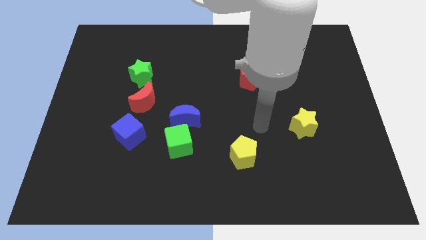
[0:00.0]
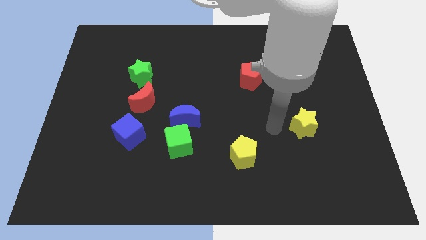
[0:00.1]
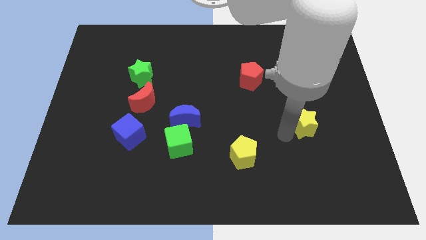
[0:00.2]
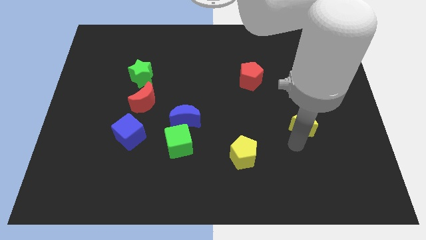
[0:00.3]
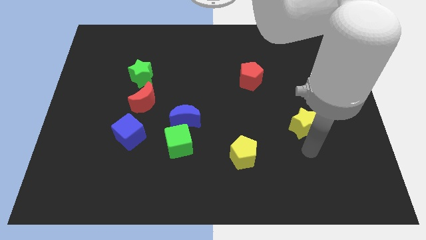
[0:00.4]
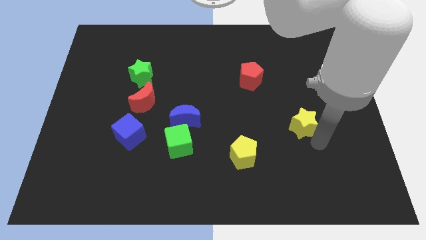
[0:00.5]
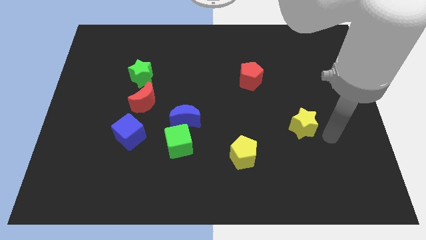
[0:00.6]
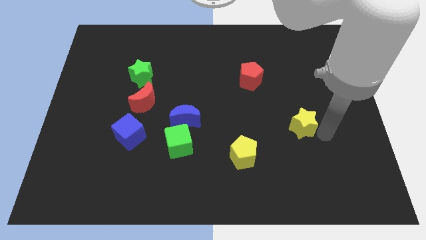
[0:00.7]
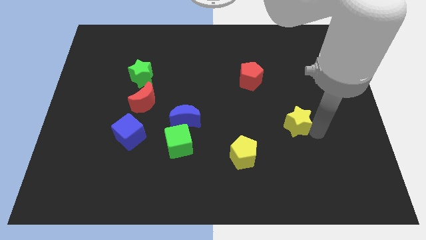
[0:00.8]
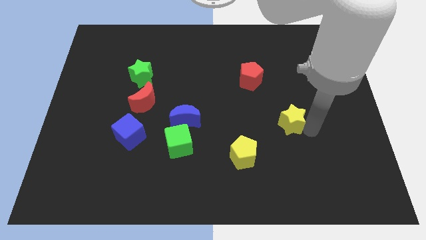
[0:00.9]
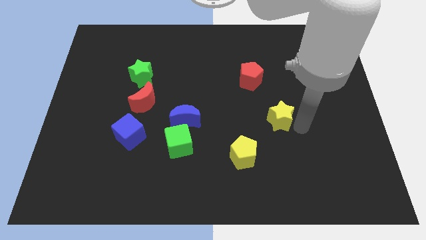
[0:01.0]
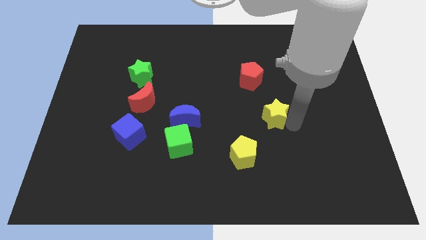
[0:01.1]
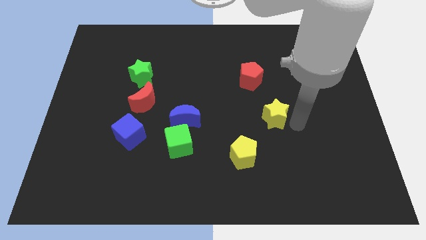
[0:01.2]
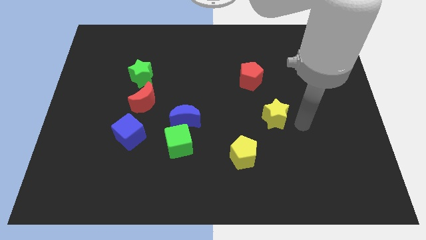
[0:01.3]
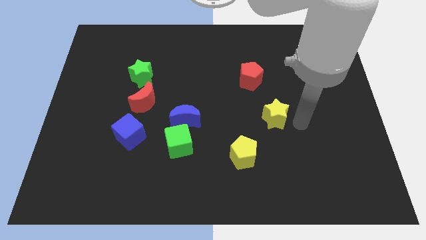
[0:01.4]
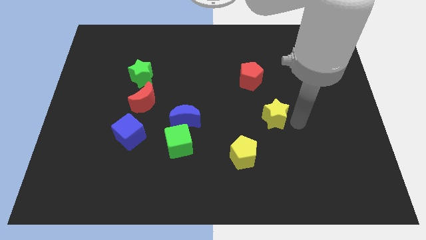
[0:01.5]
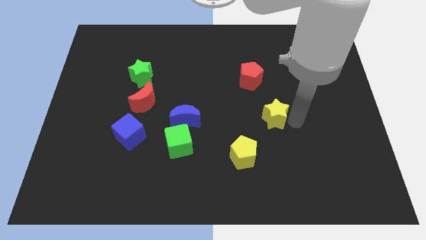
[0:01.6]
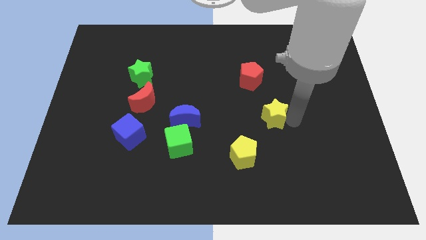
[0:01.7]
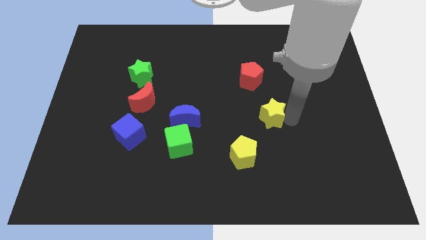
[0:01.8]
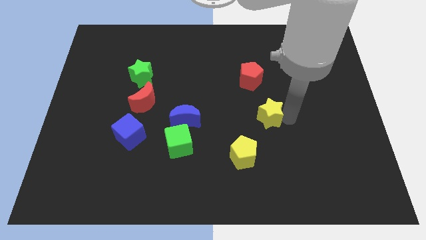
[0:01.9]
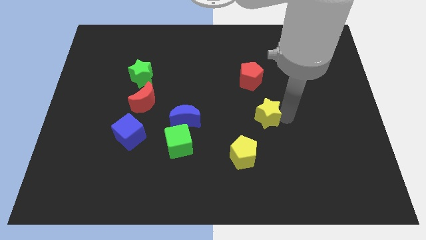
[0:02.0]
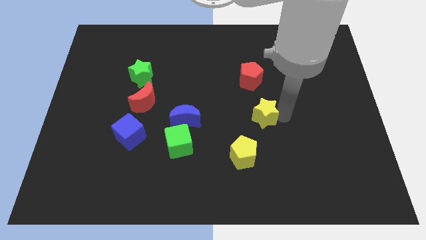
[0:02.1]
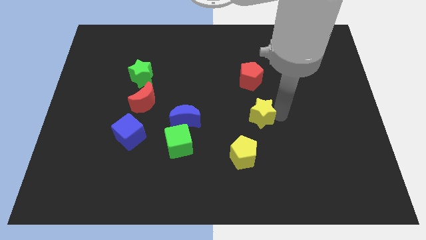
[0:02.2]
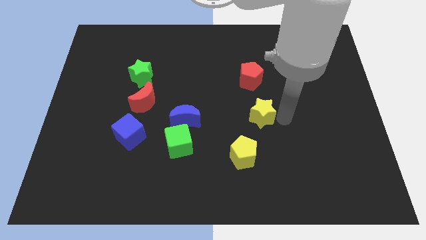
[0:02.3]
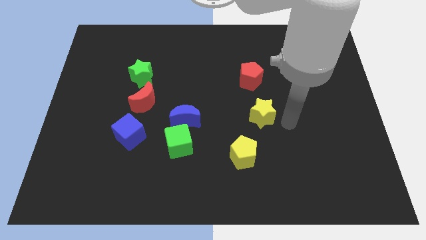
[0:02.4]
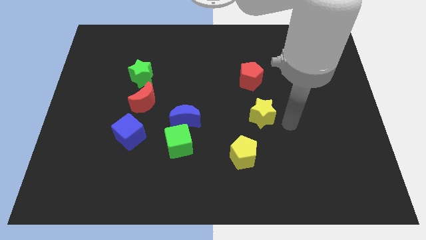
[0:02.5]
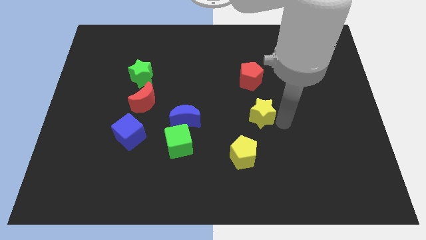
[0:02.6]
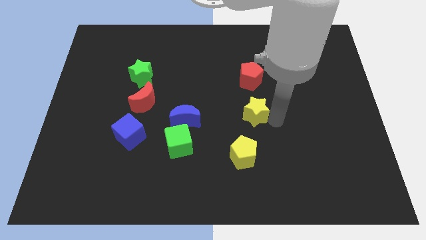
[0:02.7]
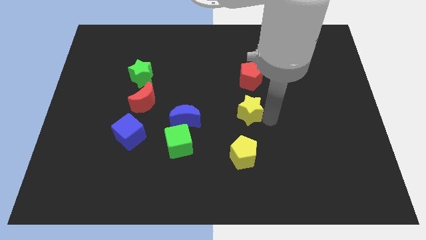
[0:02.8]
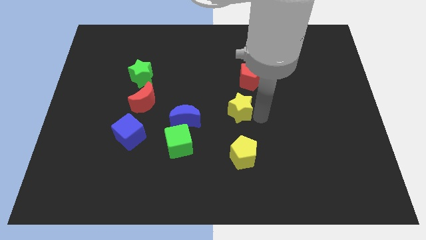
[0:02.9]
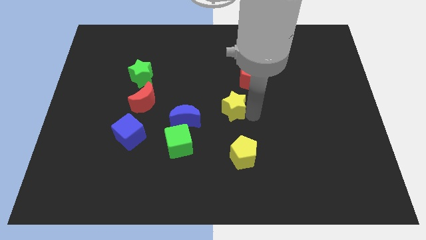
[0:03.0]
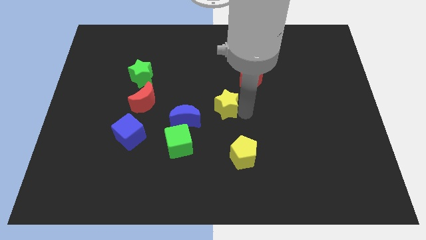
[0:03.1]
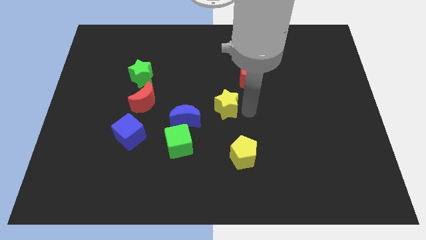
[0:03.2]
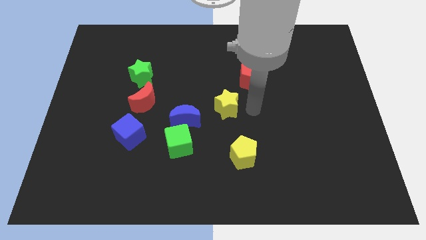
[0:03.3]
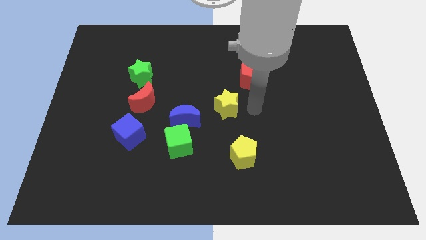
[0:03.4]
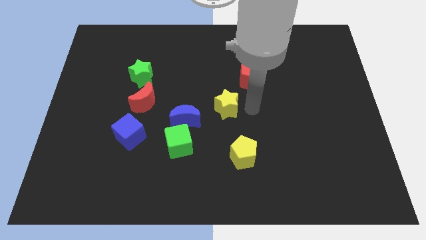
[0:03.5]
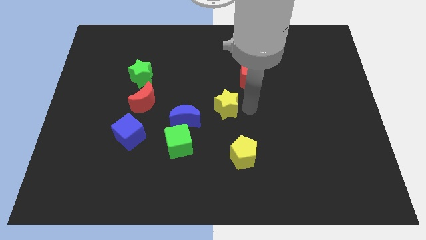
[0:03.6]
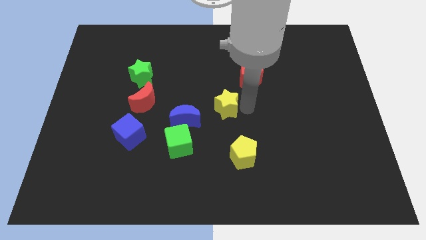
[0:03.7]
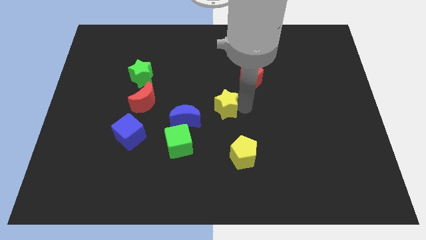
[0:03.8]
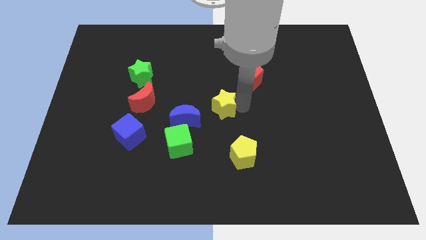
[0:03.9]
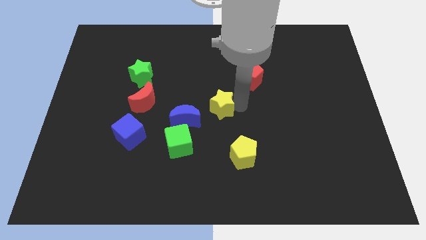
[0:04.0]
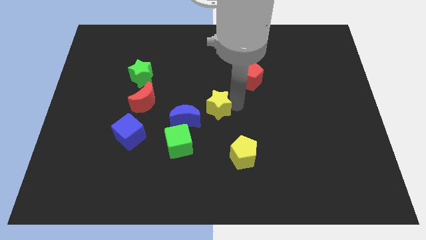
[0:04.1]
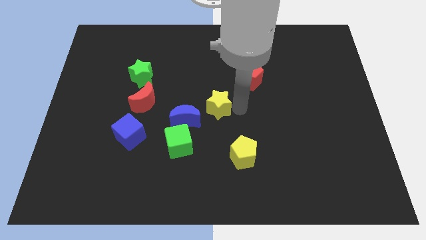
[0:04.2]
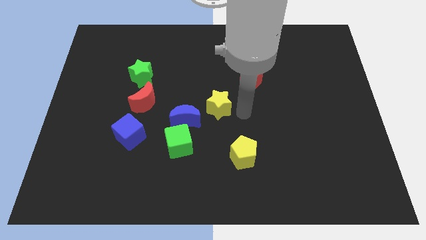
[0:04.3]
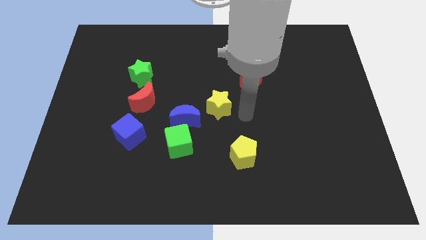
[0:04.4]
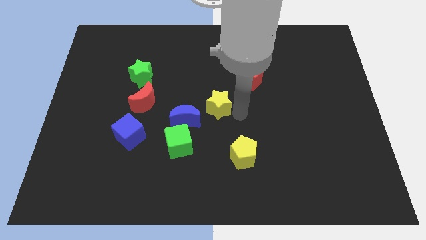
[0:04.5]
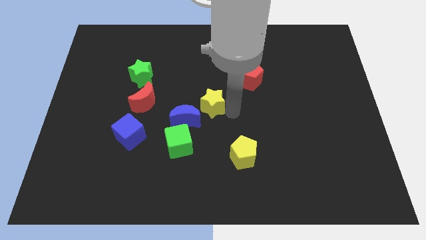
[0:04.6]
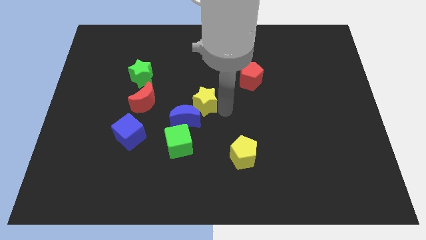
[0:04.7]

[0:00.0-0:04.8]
slide the yellow star left

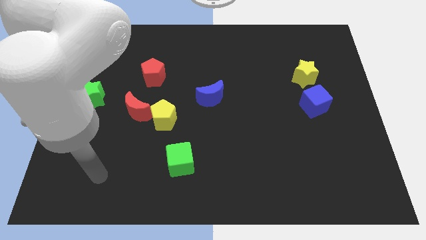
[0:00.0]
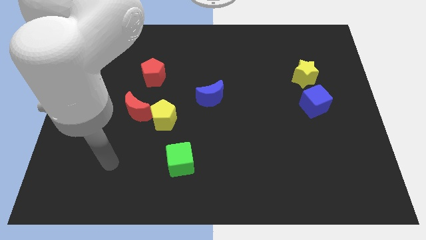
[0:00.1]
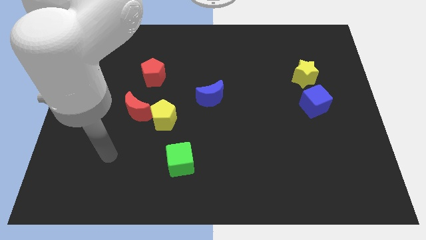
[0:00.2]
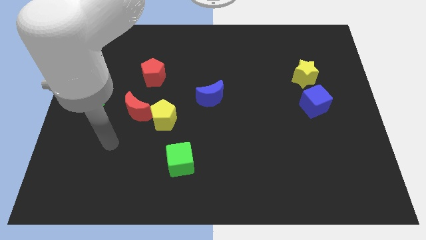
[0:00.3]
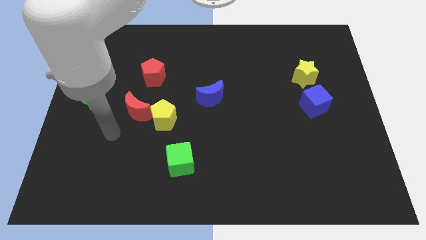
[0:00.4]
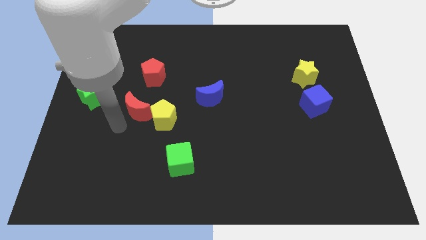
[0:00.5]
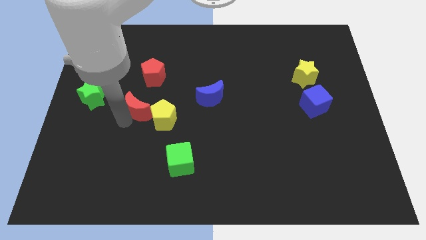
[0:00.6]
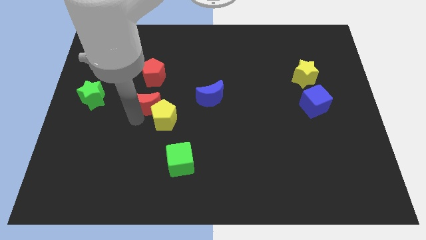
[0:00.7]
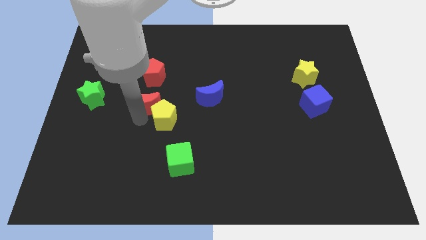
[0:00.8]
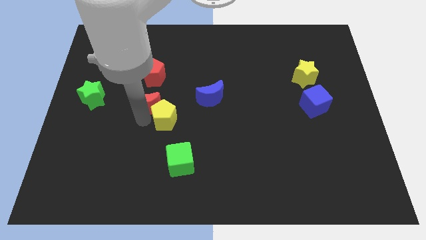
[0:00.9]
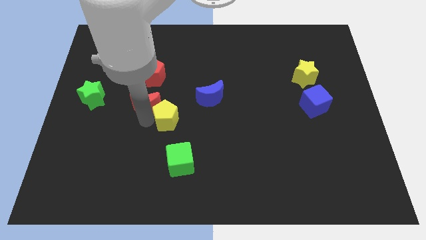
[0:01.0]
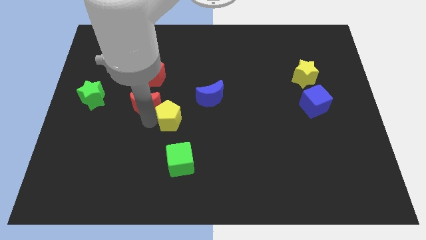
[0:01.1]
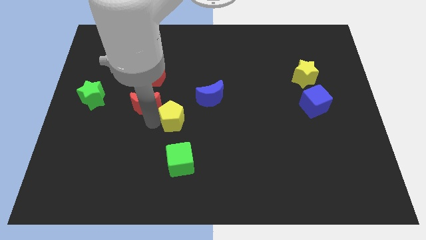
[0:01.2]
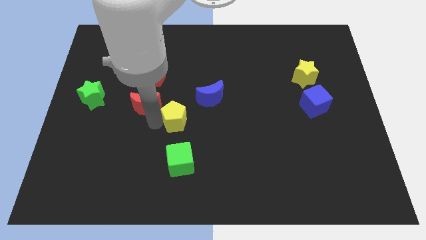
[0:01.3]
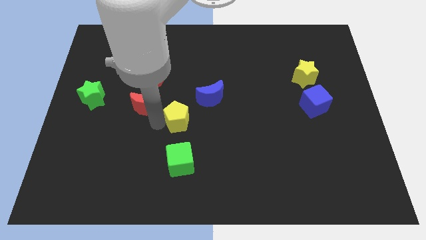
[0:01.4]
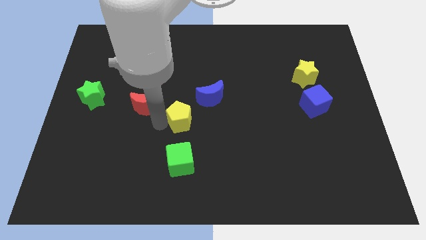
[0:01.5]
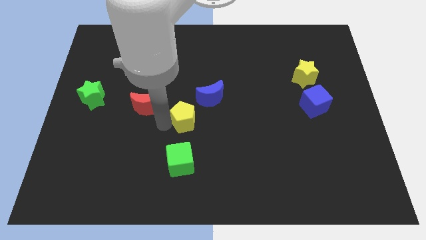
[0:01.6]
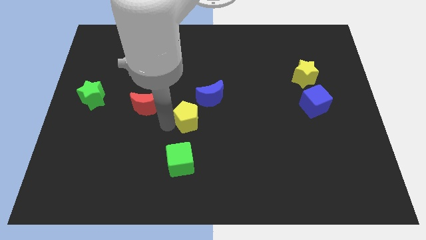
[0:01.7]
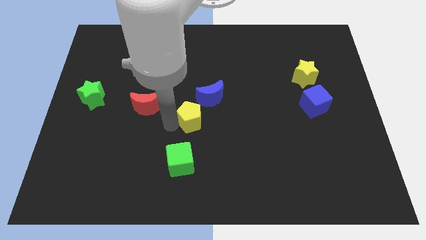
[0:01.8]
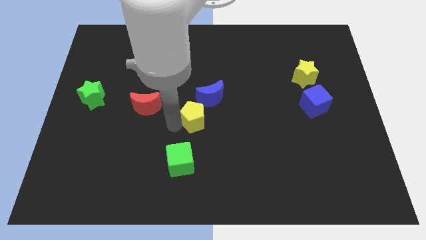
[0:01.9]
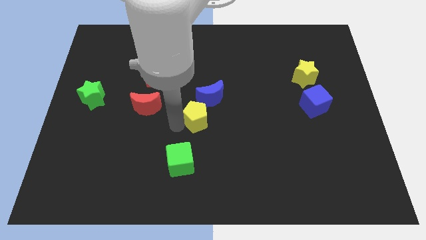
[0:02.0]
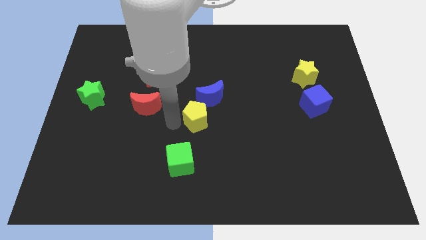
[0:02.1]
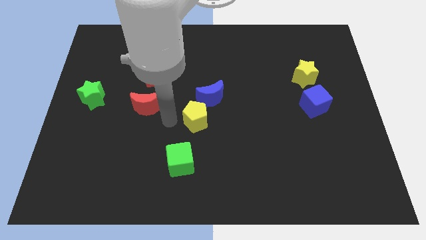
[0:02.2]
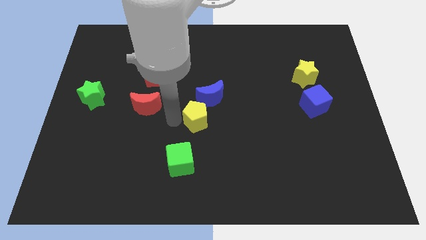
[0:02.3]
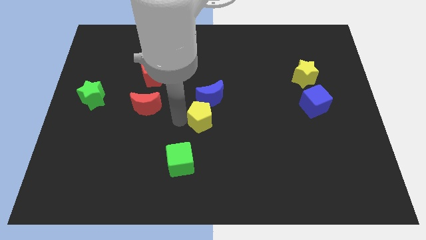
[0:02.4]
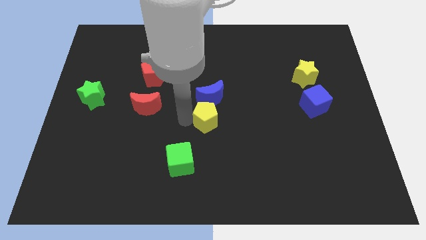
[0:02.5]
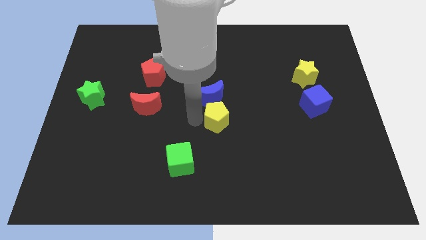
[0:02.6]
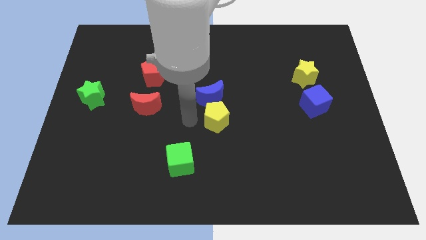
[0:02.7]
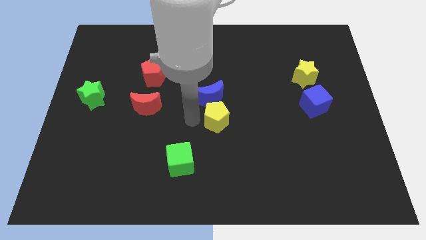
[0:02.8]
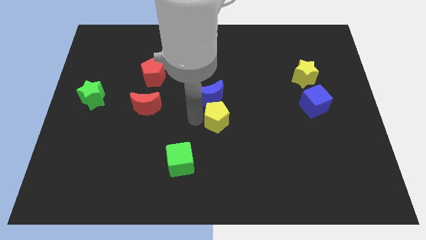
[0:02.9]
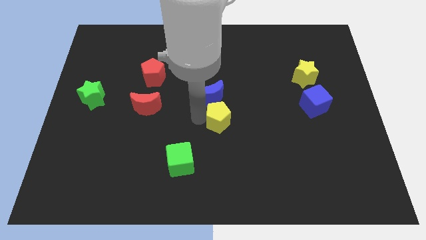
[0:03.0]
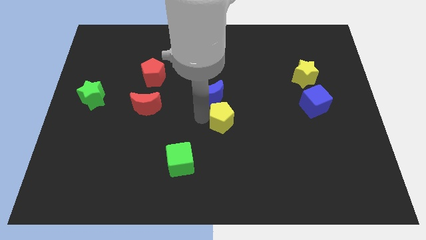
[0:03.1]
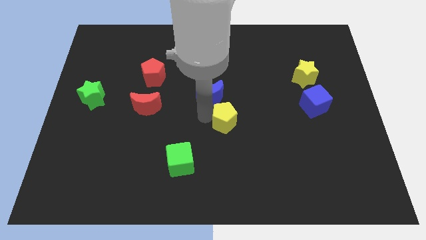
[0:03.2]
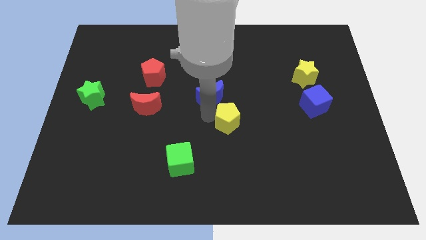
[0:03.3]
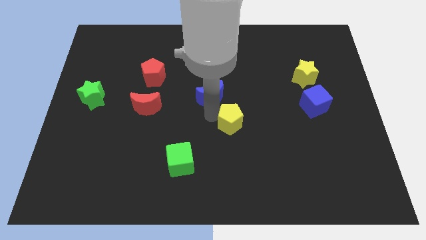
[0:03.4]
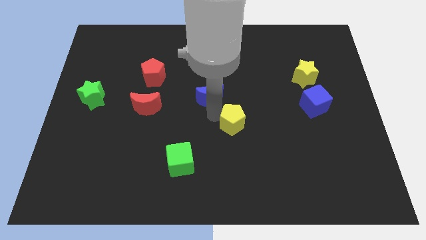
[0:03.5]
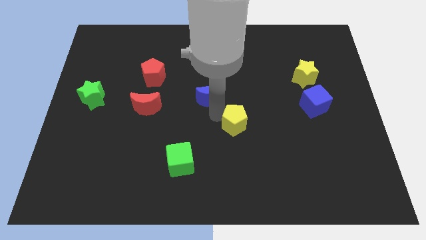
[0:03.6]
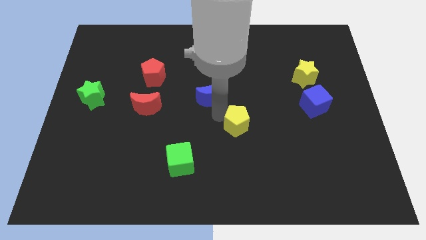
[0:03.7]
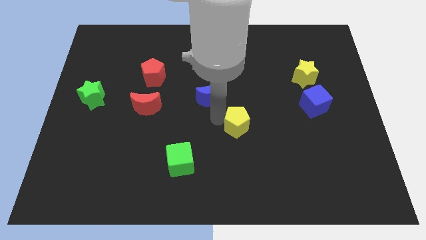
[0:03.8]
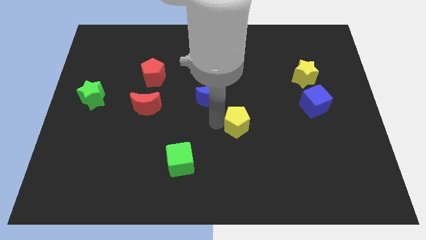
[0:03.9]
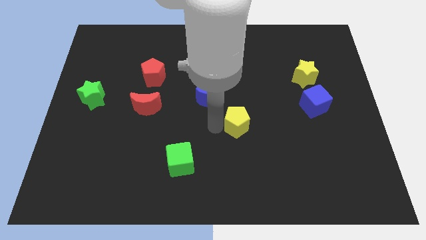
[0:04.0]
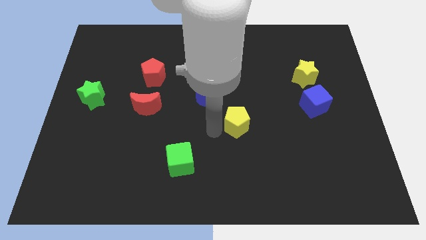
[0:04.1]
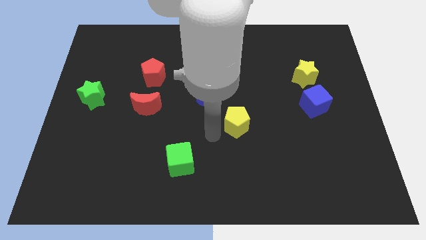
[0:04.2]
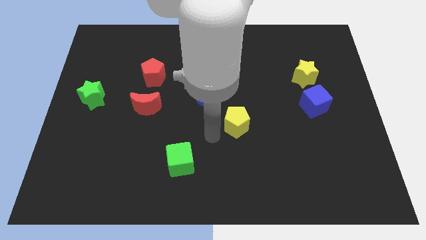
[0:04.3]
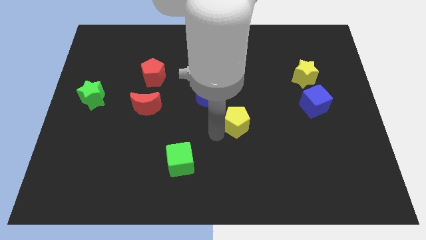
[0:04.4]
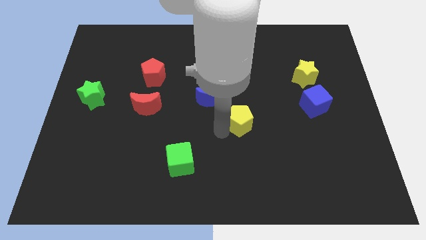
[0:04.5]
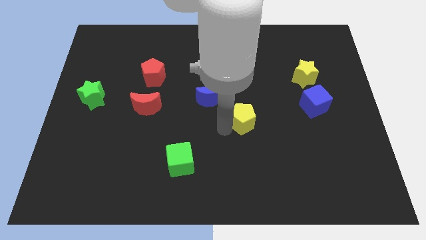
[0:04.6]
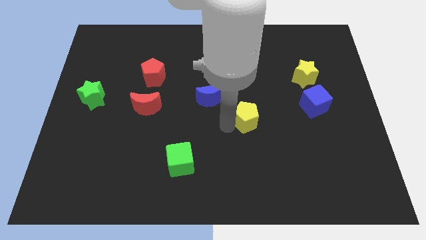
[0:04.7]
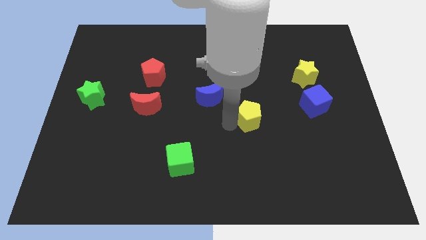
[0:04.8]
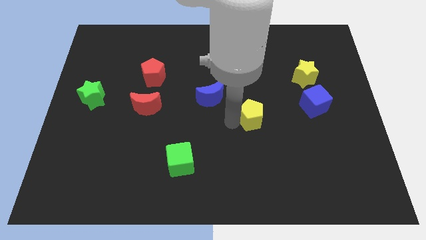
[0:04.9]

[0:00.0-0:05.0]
slide the yellow pentagon to the right
